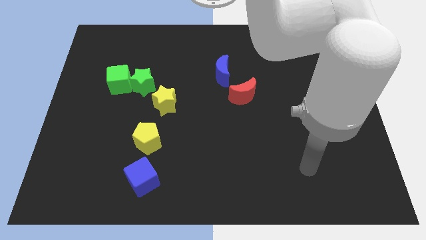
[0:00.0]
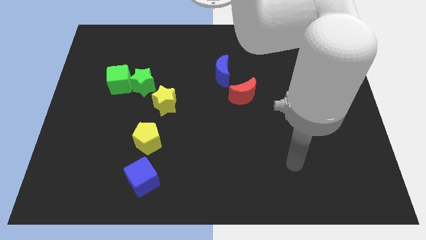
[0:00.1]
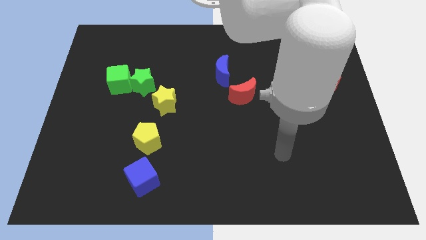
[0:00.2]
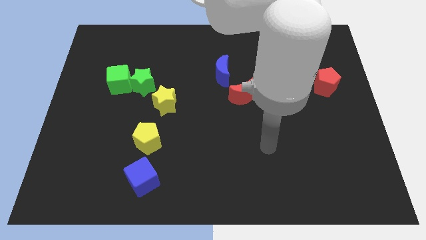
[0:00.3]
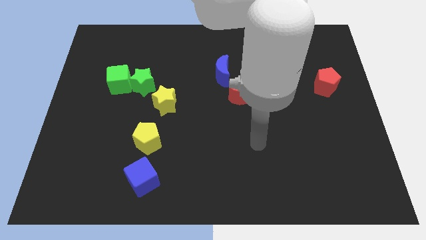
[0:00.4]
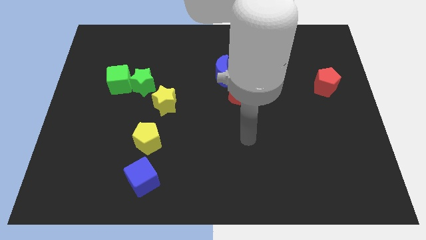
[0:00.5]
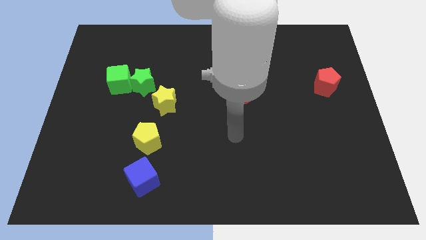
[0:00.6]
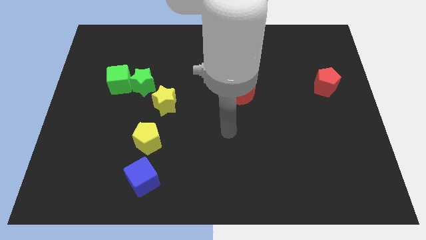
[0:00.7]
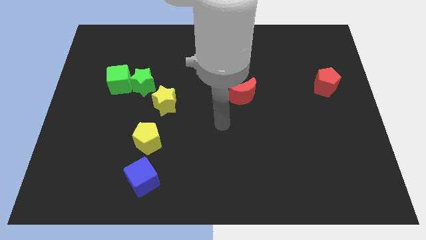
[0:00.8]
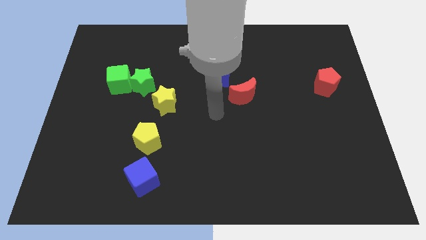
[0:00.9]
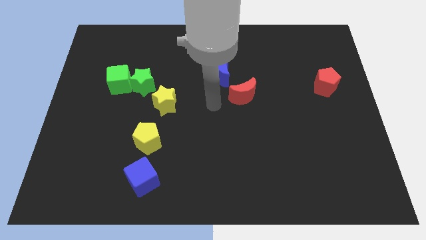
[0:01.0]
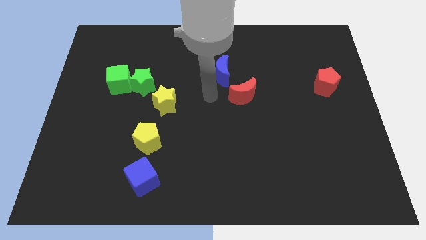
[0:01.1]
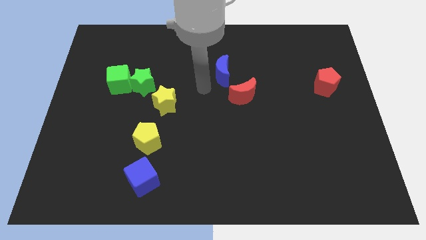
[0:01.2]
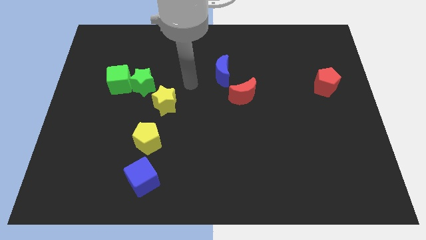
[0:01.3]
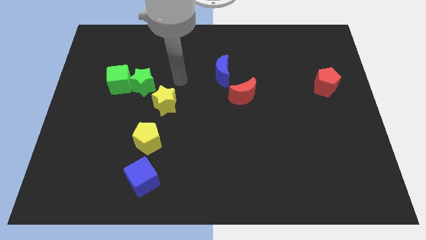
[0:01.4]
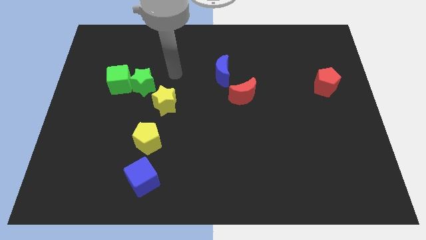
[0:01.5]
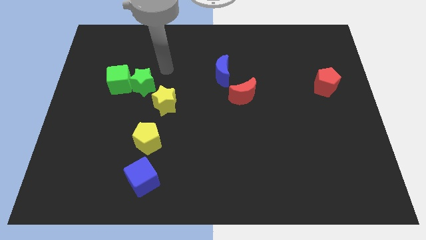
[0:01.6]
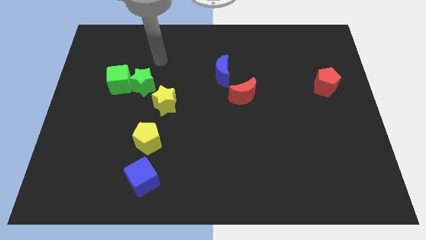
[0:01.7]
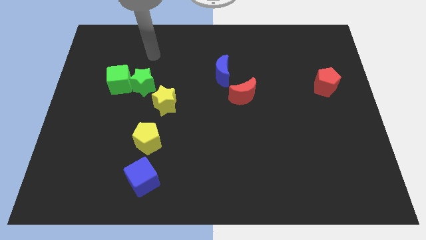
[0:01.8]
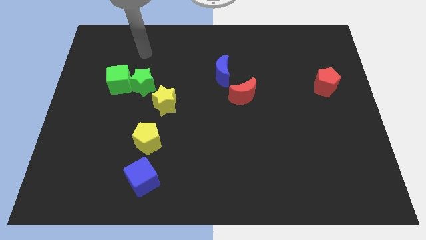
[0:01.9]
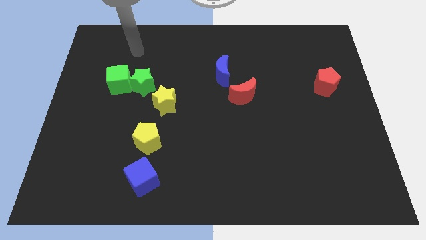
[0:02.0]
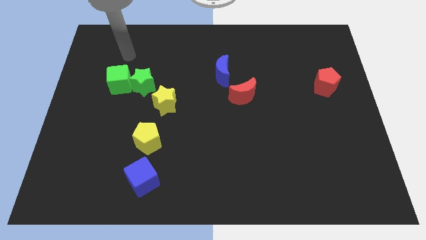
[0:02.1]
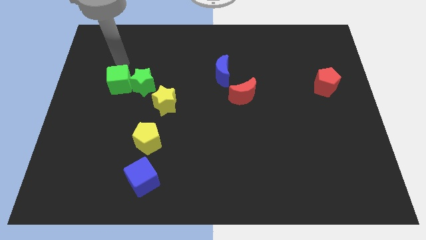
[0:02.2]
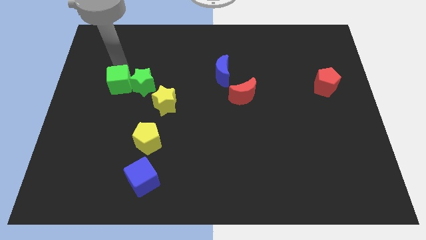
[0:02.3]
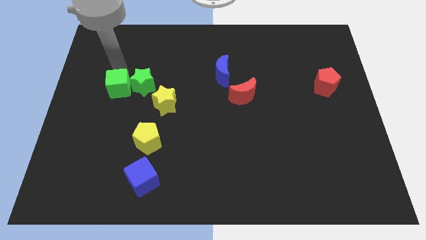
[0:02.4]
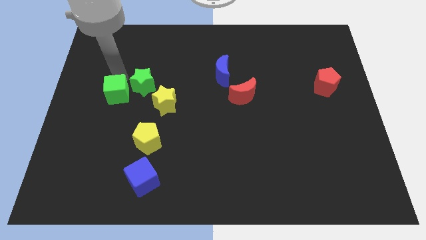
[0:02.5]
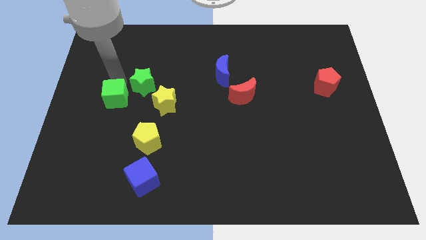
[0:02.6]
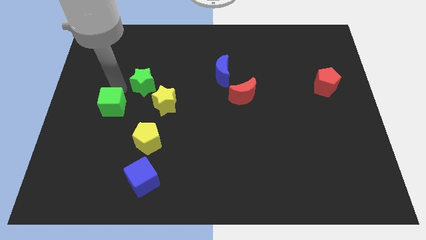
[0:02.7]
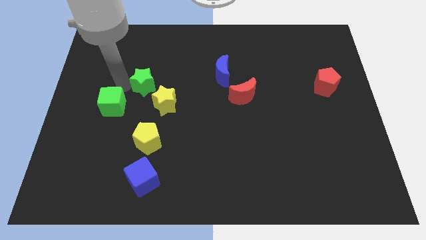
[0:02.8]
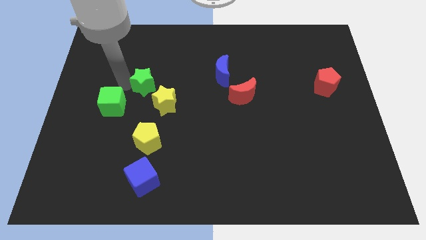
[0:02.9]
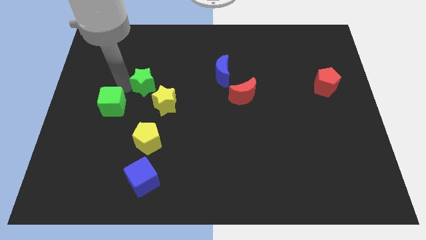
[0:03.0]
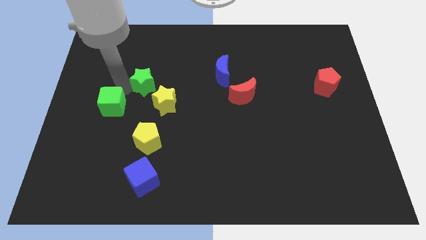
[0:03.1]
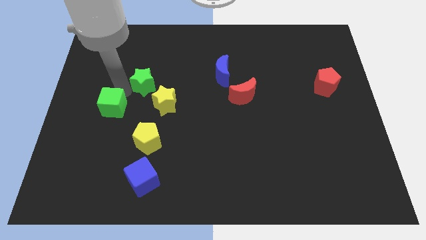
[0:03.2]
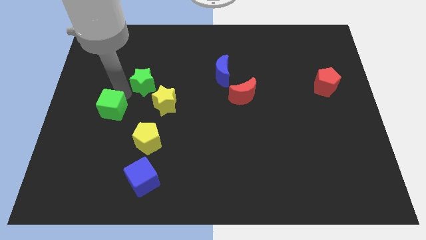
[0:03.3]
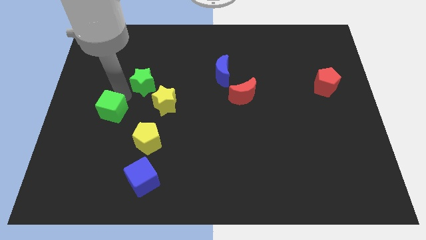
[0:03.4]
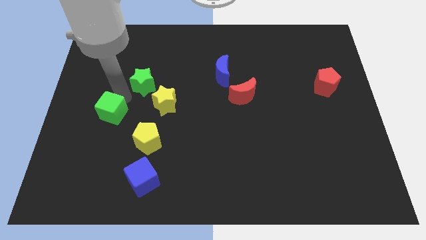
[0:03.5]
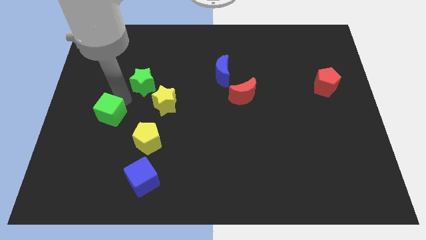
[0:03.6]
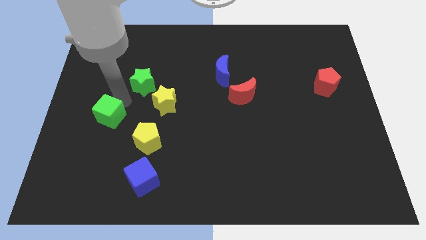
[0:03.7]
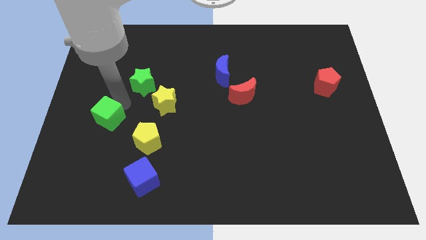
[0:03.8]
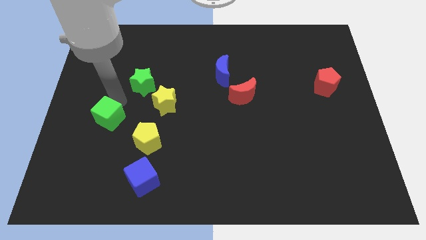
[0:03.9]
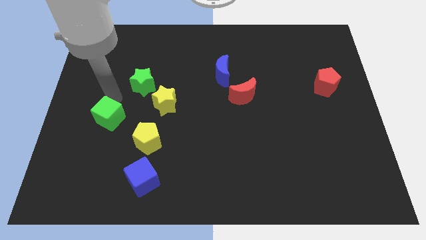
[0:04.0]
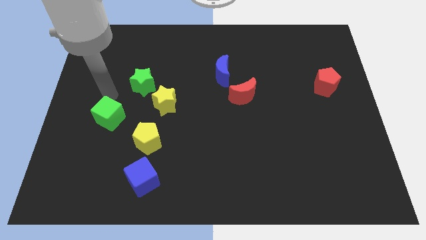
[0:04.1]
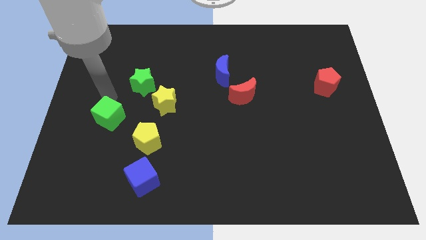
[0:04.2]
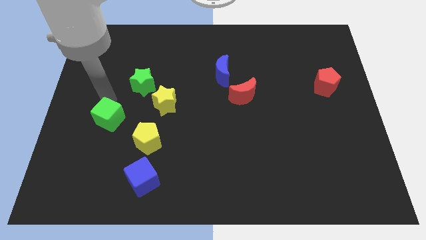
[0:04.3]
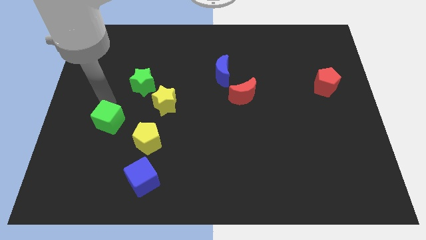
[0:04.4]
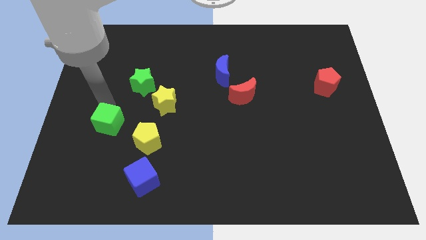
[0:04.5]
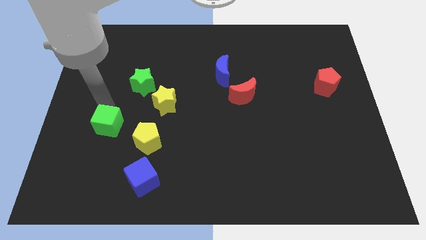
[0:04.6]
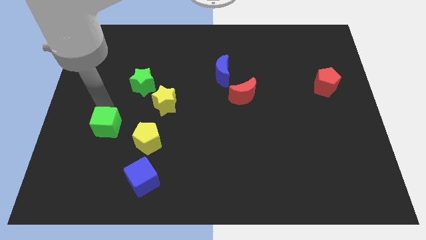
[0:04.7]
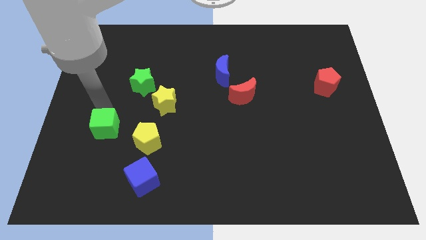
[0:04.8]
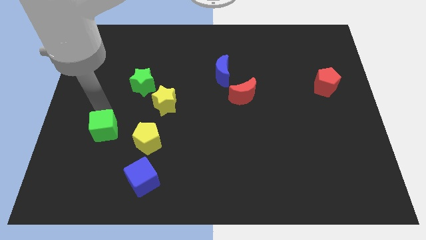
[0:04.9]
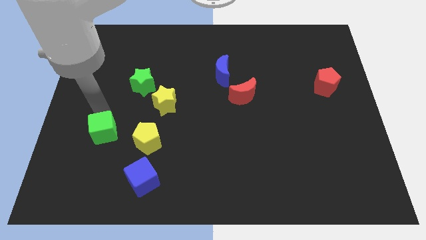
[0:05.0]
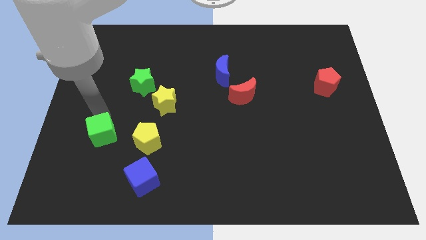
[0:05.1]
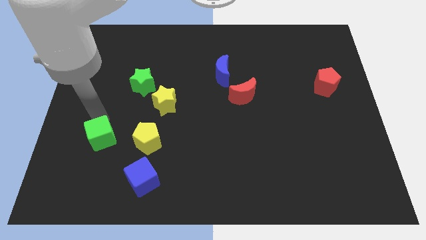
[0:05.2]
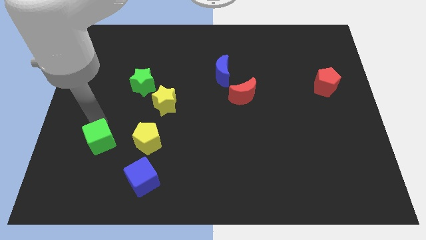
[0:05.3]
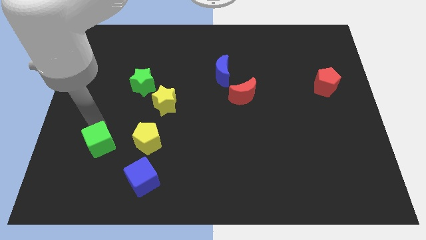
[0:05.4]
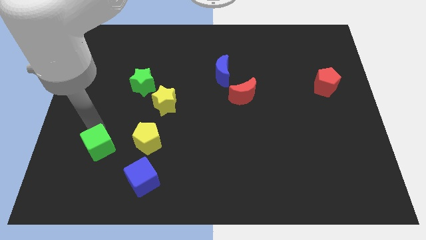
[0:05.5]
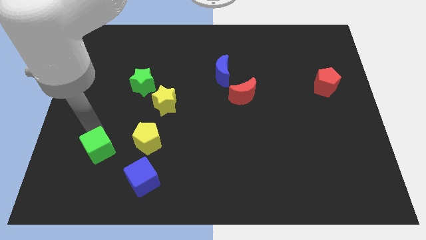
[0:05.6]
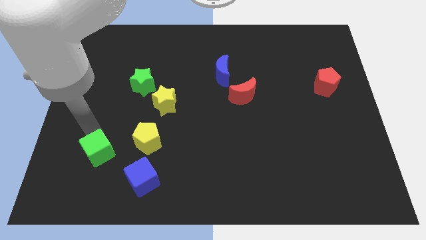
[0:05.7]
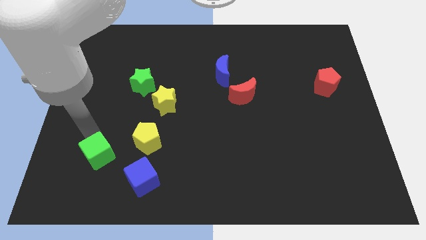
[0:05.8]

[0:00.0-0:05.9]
put the green cube diagonally down and to the left of the yellow pentagon
